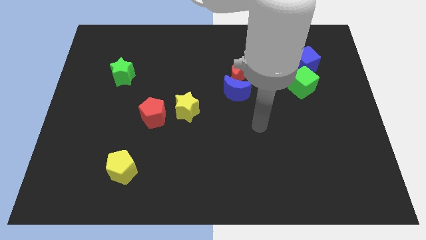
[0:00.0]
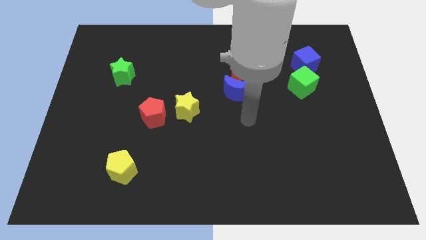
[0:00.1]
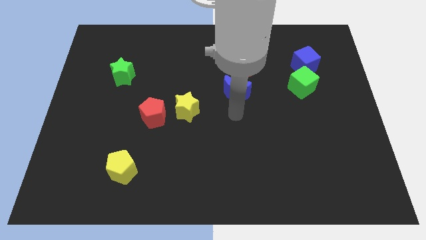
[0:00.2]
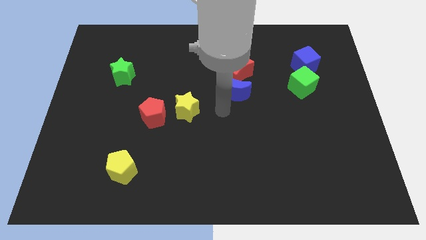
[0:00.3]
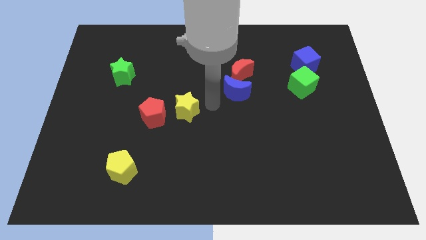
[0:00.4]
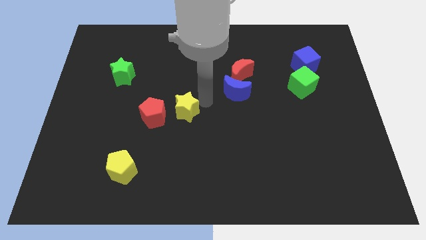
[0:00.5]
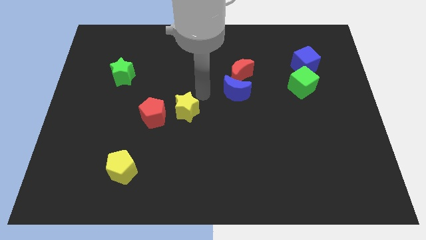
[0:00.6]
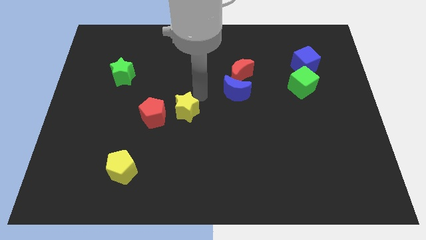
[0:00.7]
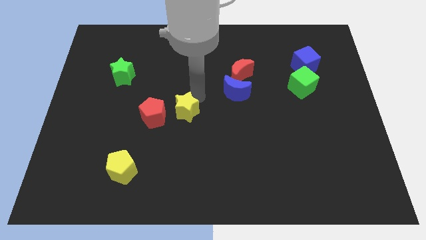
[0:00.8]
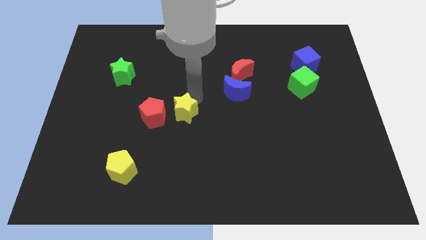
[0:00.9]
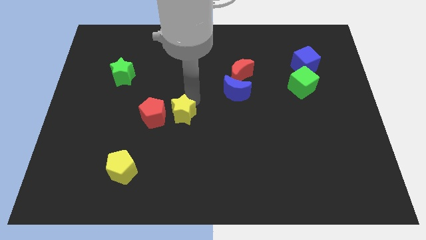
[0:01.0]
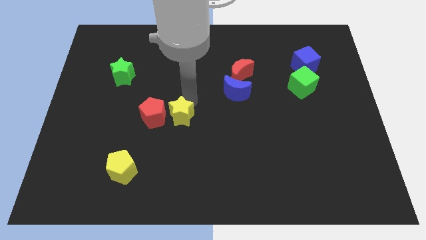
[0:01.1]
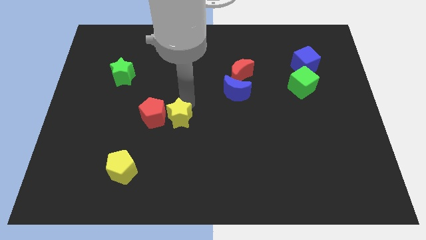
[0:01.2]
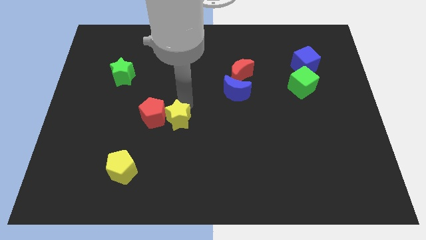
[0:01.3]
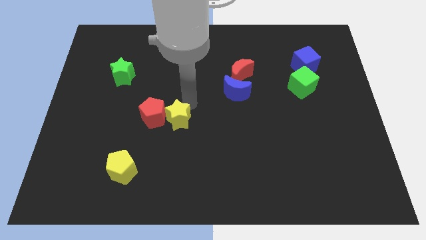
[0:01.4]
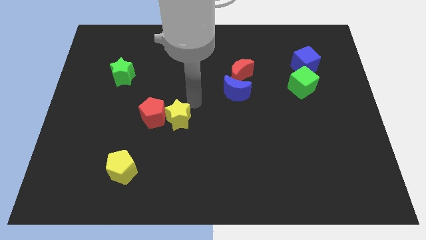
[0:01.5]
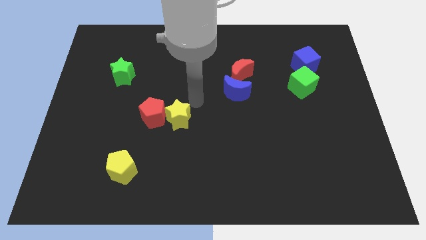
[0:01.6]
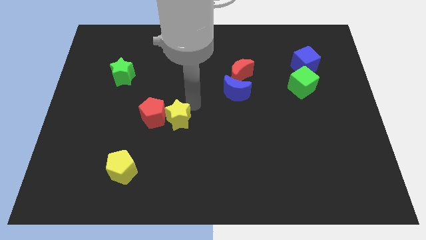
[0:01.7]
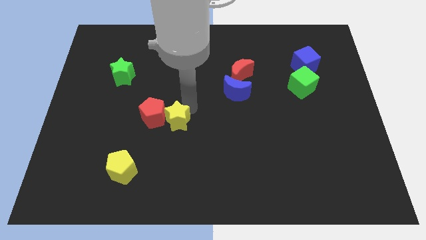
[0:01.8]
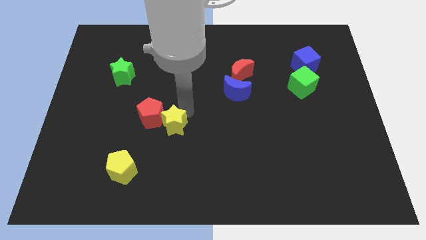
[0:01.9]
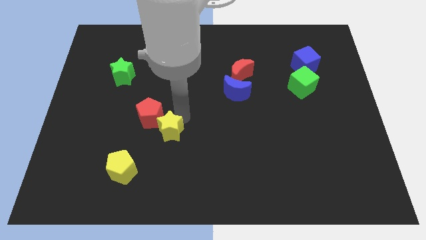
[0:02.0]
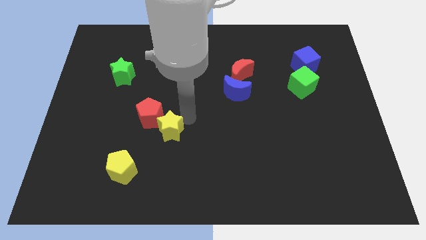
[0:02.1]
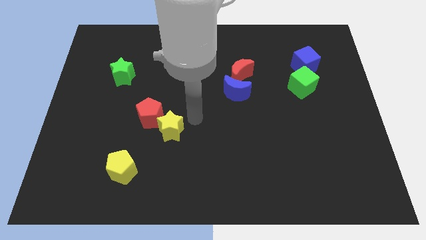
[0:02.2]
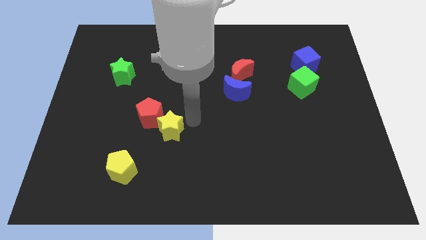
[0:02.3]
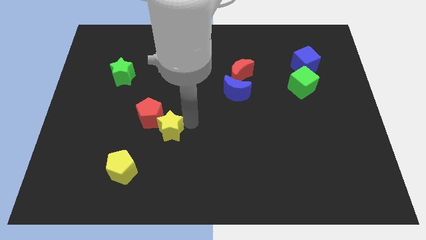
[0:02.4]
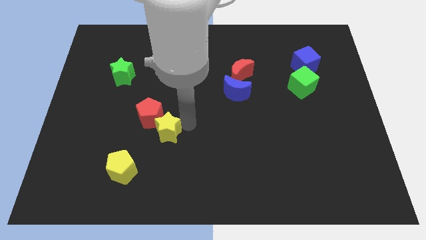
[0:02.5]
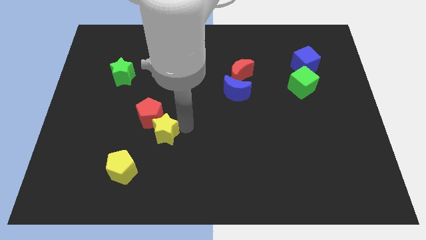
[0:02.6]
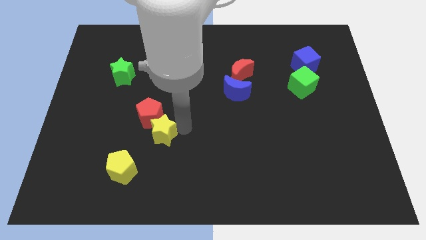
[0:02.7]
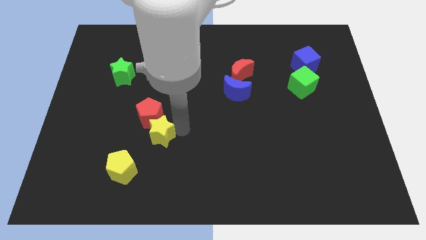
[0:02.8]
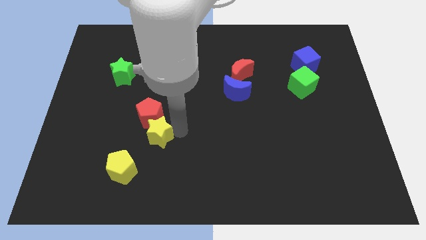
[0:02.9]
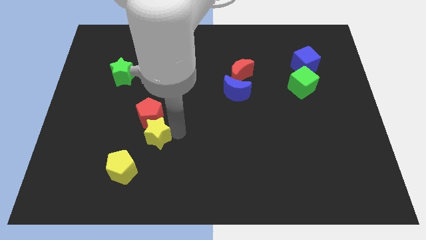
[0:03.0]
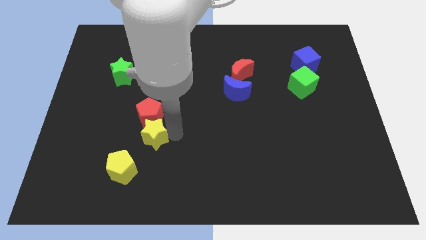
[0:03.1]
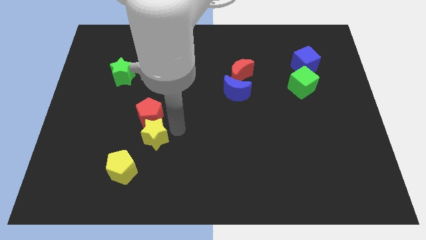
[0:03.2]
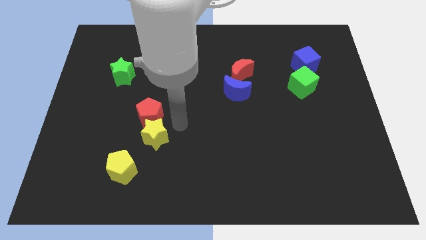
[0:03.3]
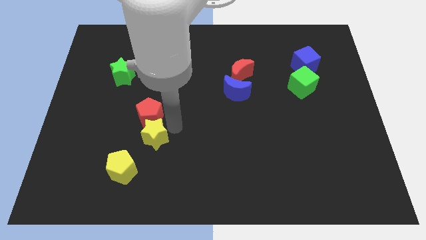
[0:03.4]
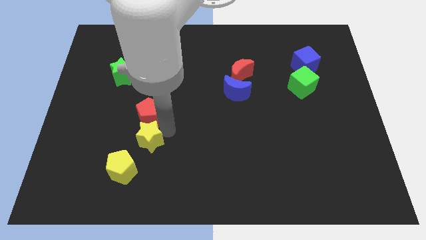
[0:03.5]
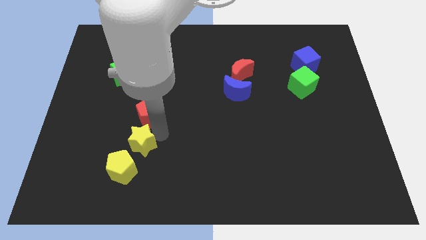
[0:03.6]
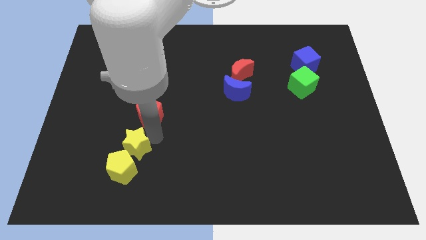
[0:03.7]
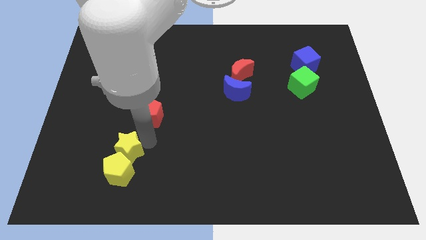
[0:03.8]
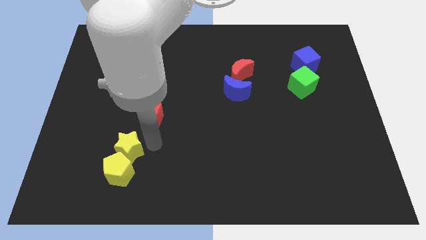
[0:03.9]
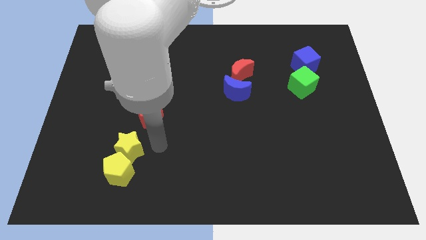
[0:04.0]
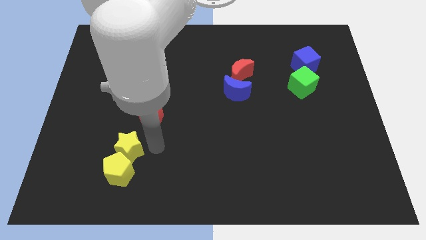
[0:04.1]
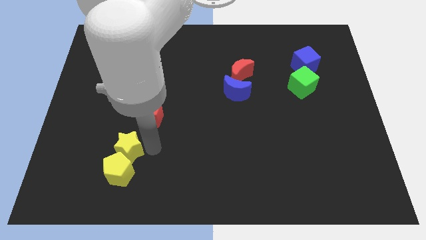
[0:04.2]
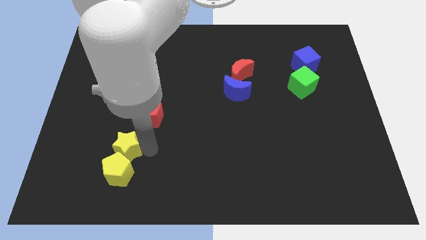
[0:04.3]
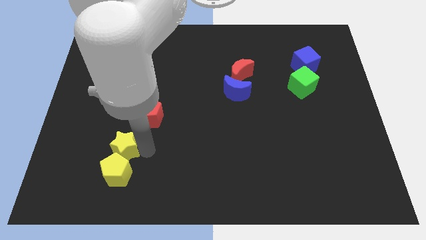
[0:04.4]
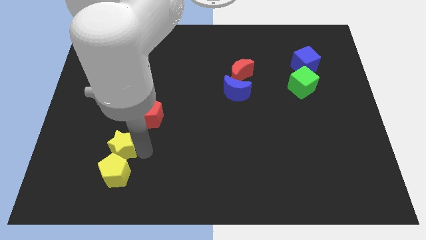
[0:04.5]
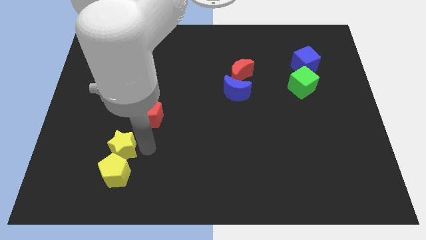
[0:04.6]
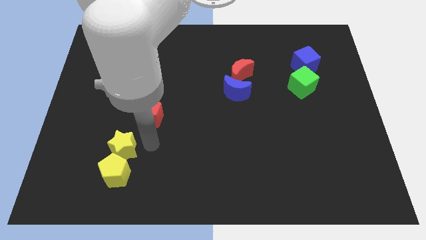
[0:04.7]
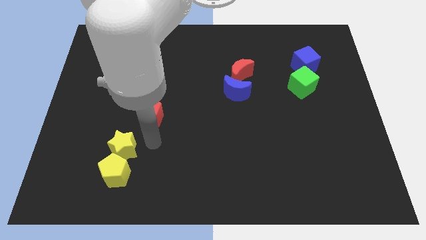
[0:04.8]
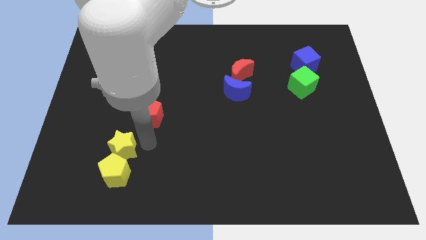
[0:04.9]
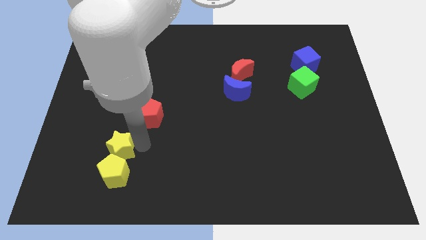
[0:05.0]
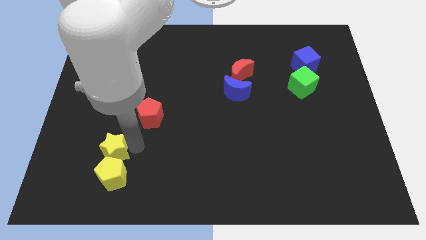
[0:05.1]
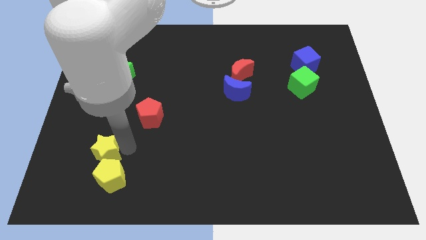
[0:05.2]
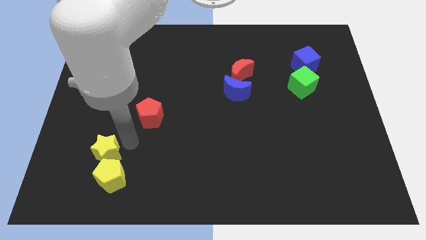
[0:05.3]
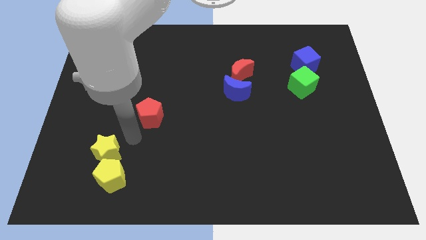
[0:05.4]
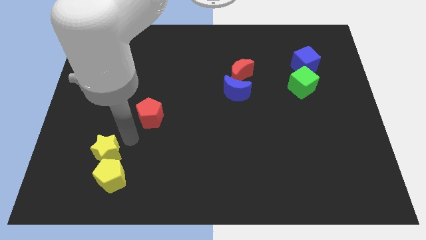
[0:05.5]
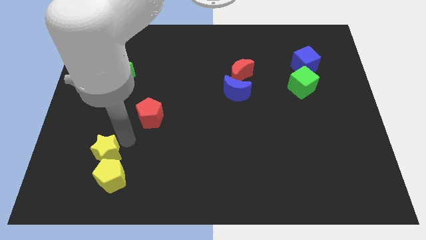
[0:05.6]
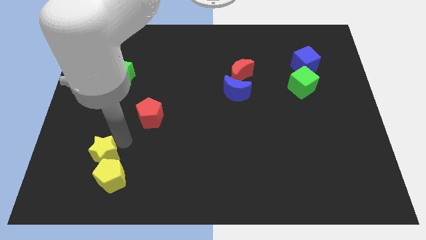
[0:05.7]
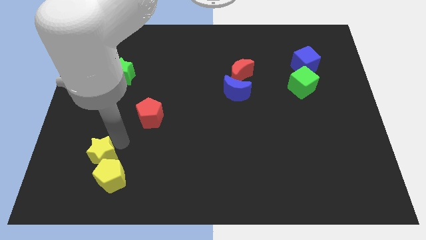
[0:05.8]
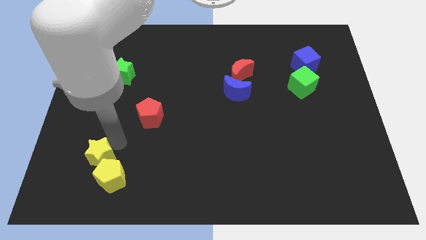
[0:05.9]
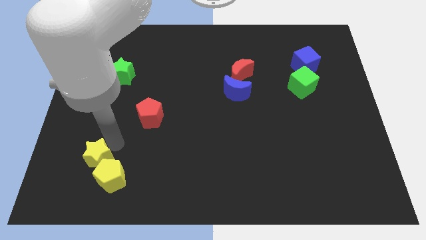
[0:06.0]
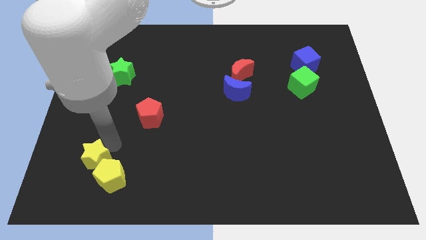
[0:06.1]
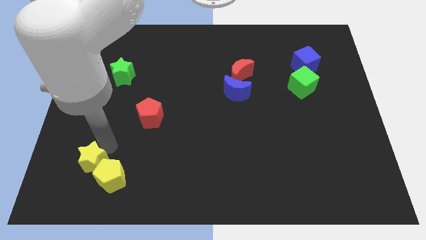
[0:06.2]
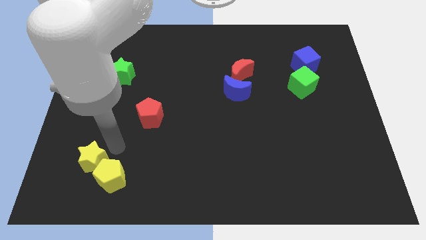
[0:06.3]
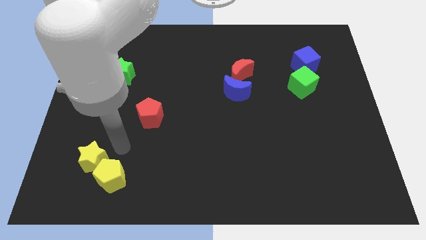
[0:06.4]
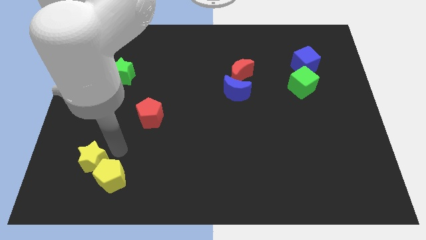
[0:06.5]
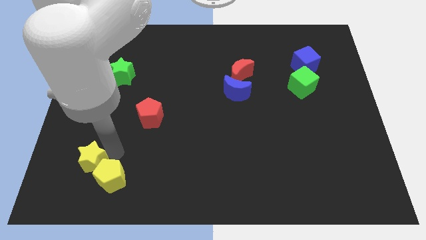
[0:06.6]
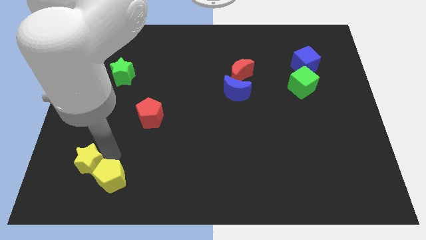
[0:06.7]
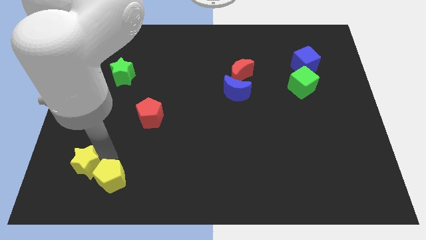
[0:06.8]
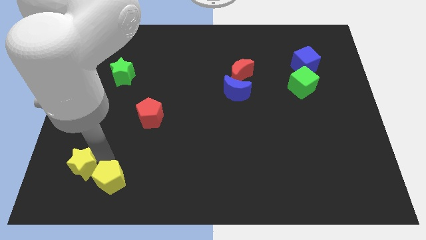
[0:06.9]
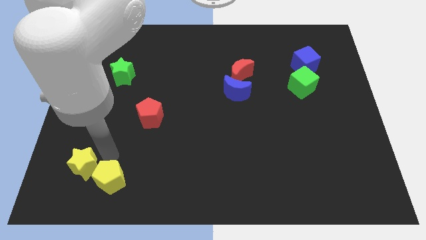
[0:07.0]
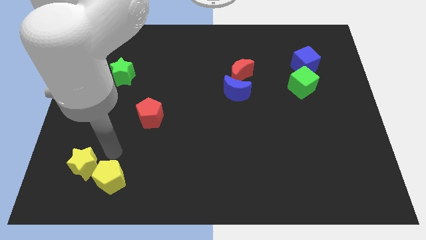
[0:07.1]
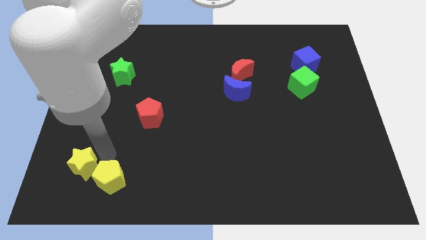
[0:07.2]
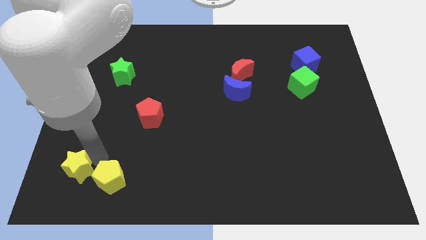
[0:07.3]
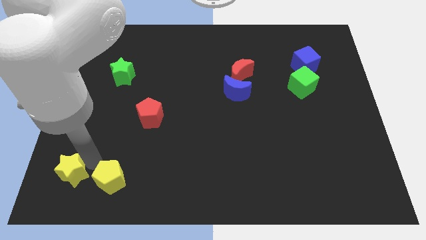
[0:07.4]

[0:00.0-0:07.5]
move the yellow star to the bottom left
